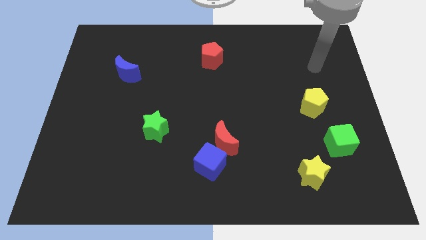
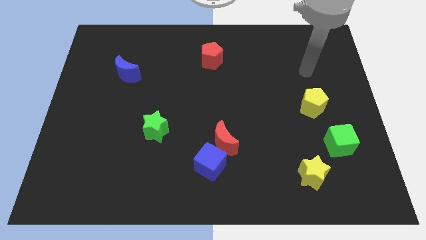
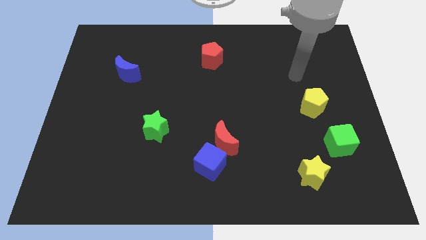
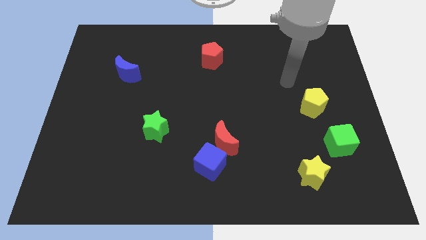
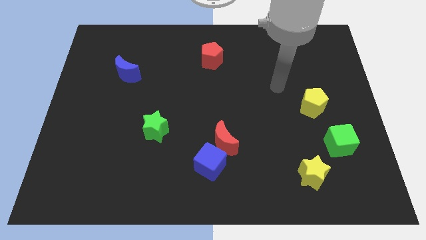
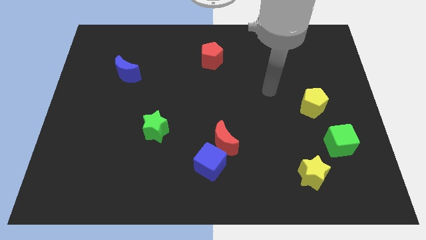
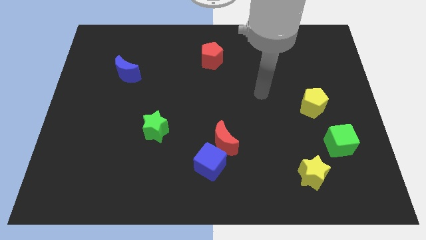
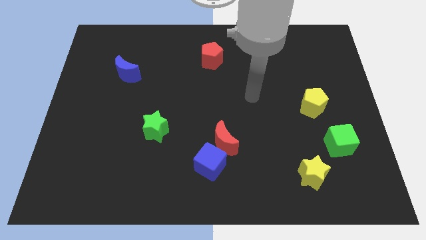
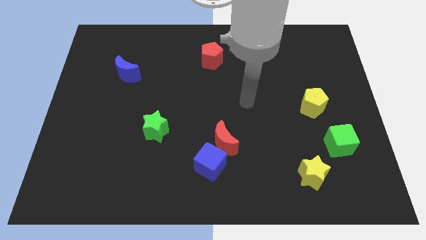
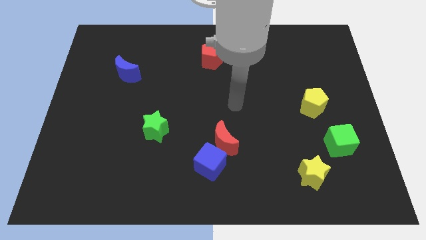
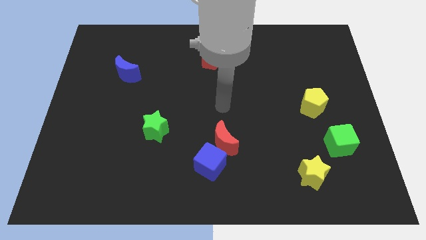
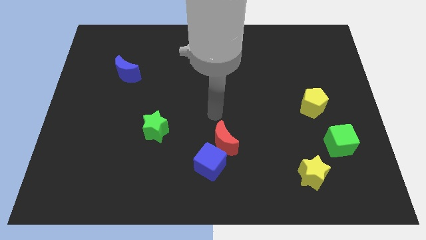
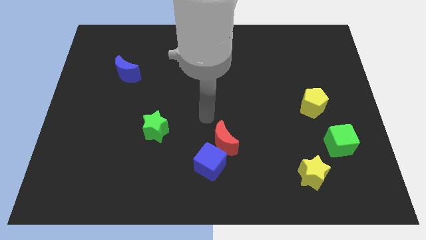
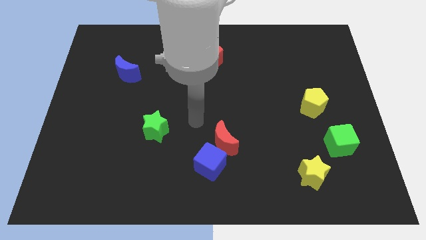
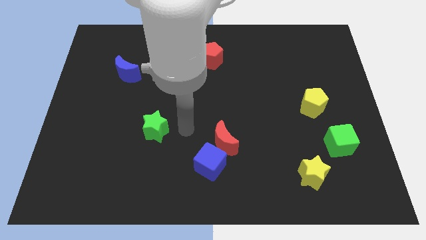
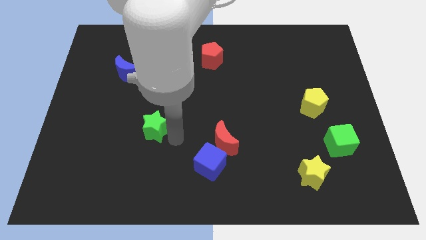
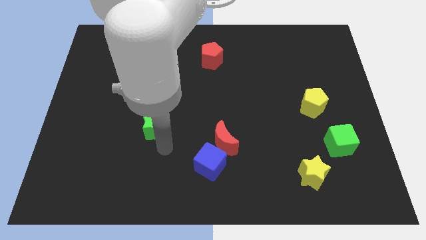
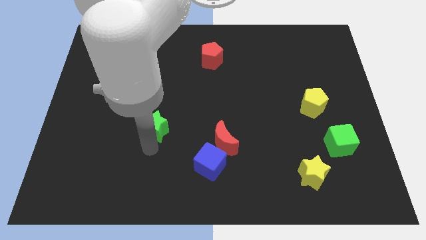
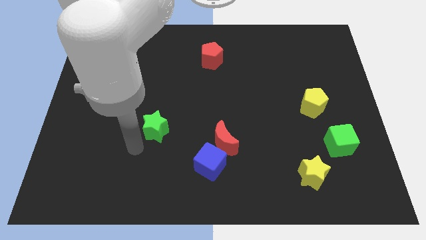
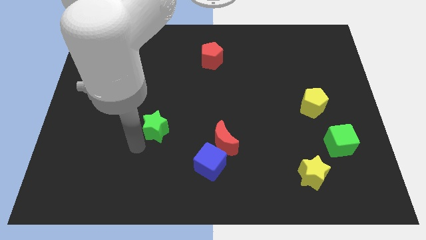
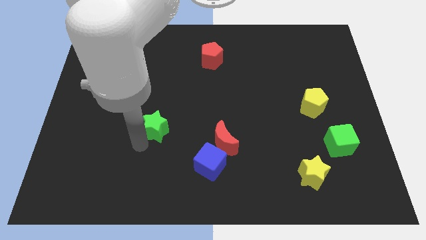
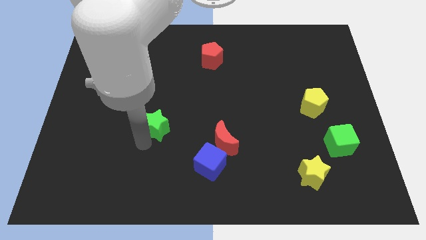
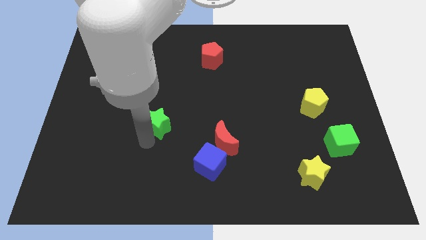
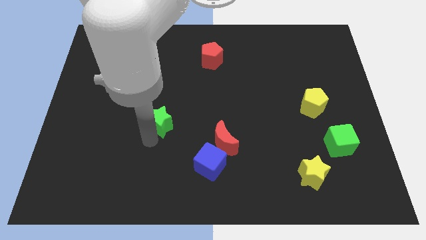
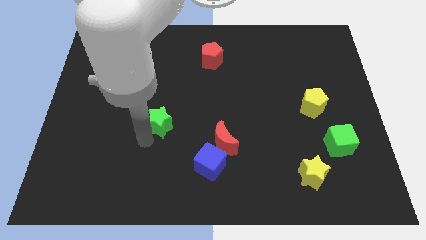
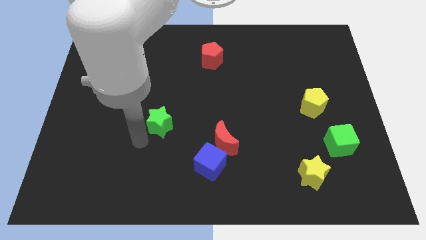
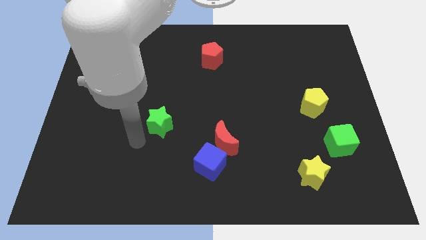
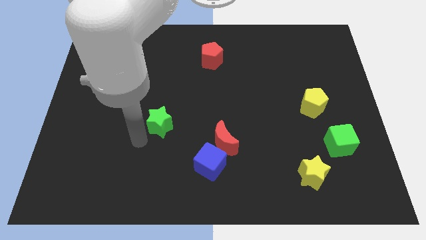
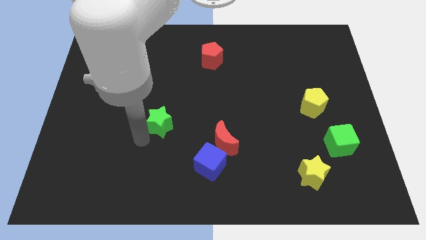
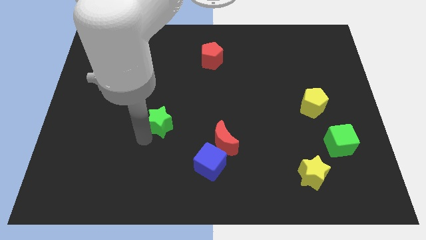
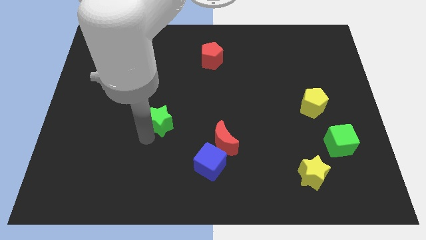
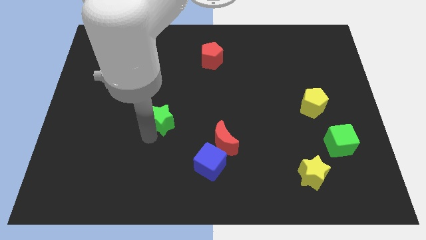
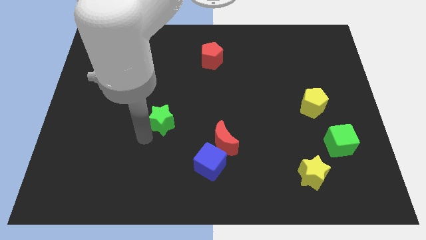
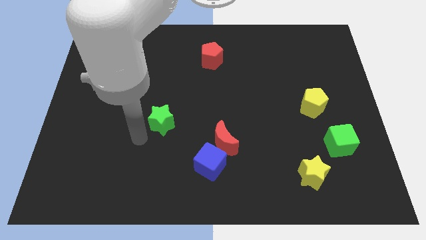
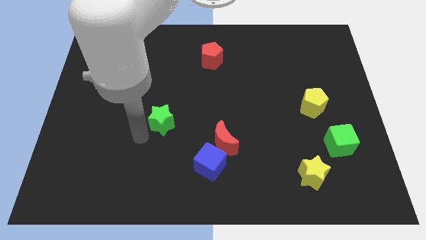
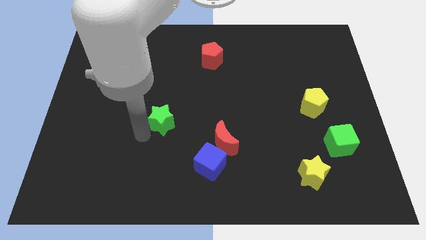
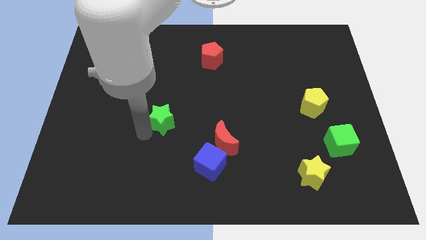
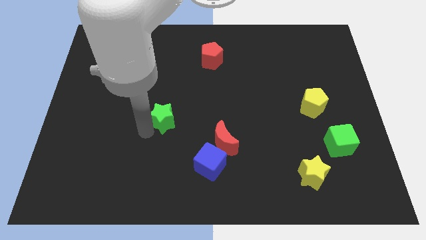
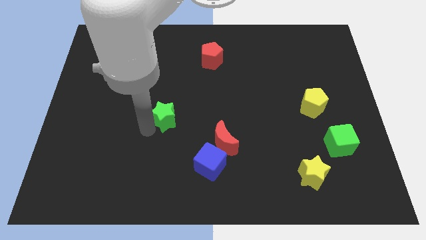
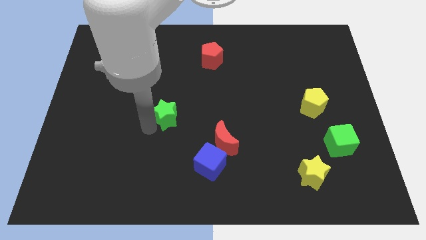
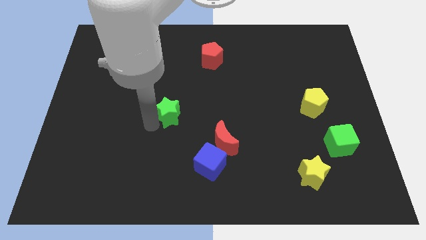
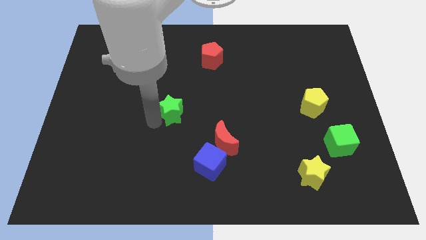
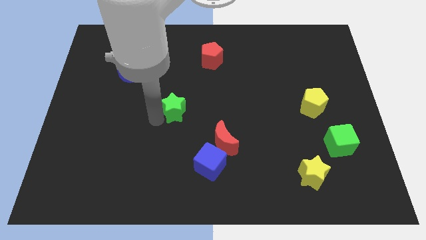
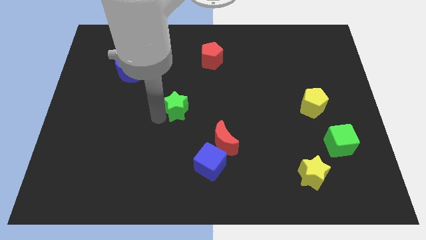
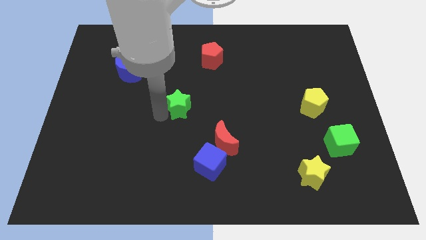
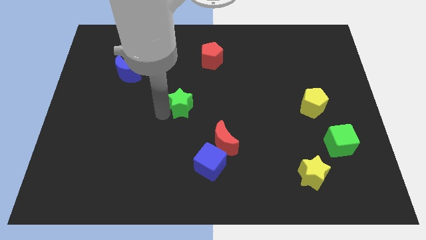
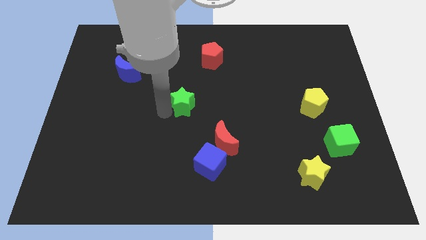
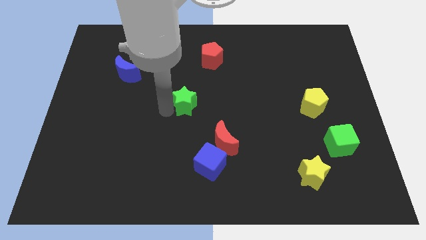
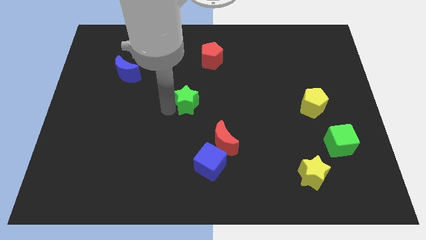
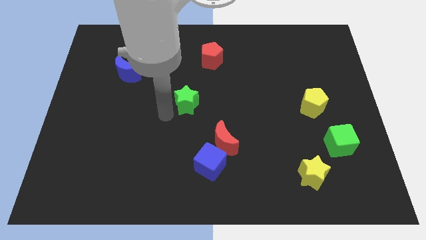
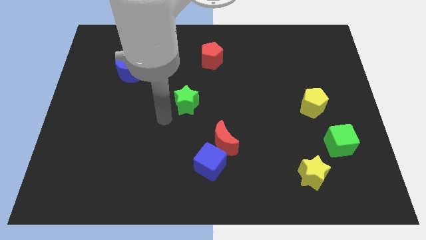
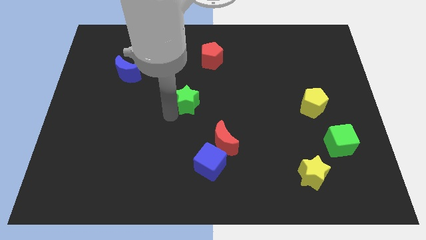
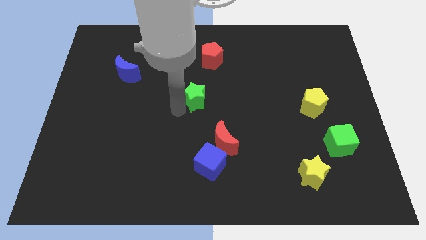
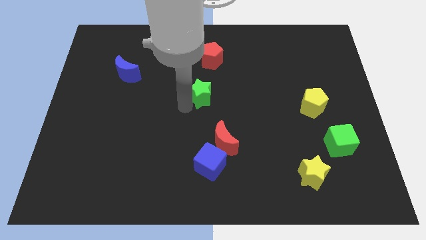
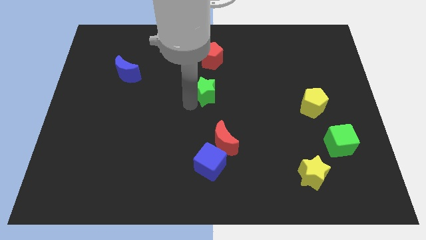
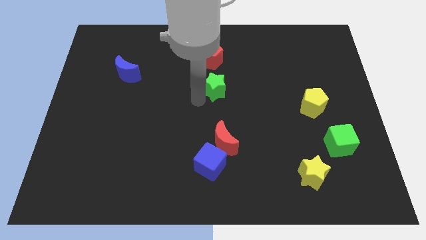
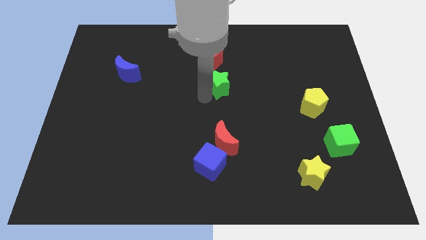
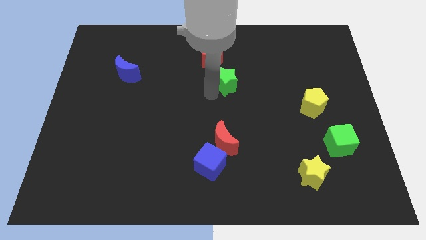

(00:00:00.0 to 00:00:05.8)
move the green star to the bottom right side of the red pentagon

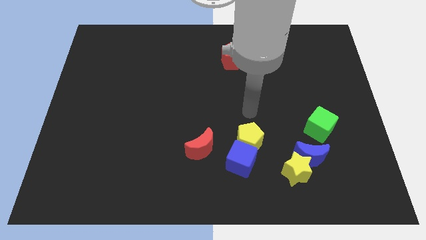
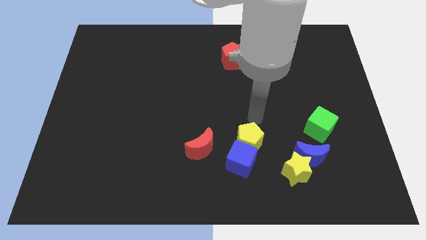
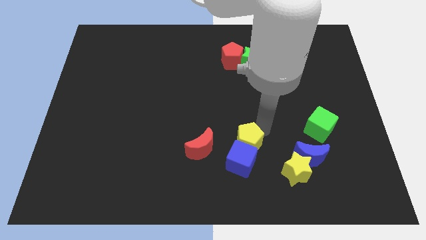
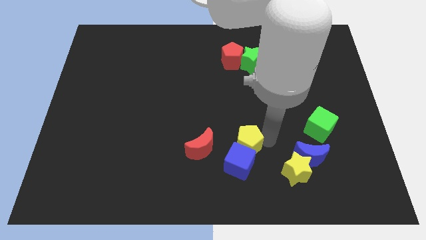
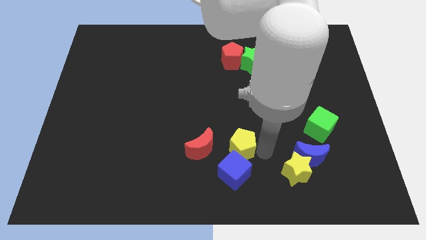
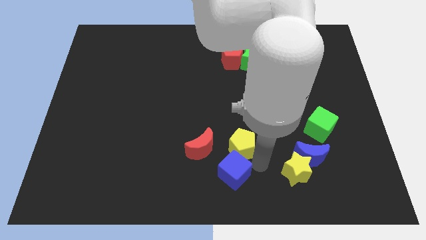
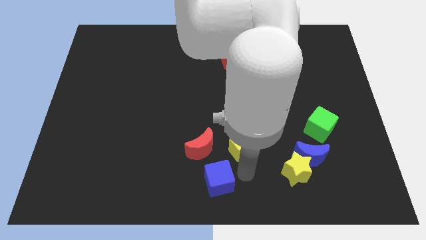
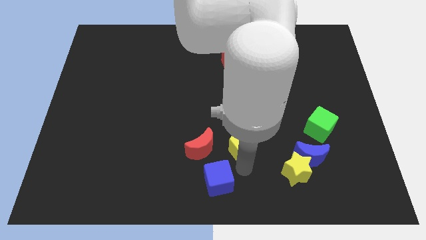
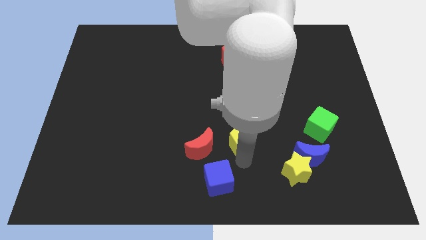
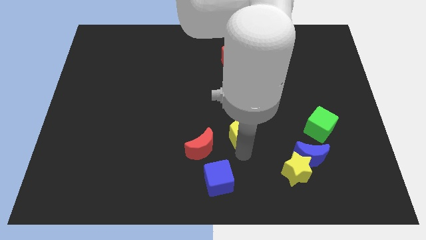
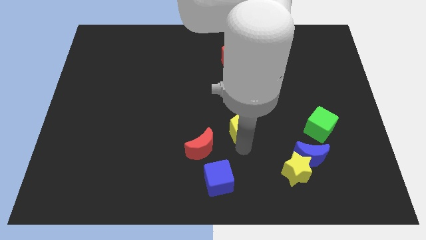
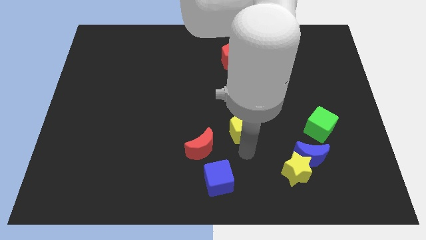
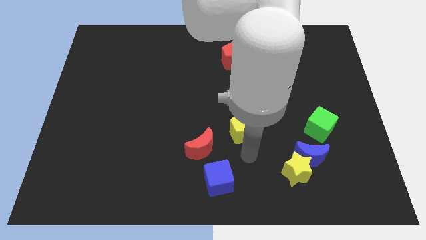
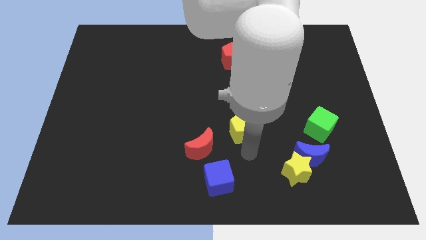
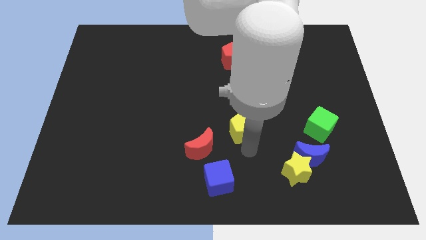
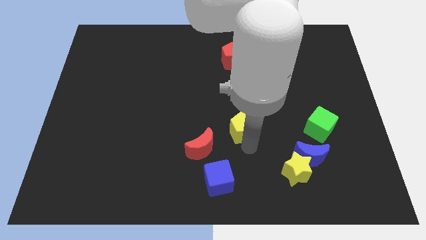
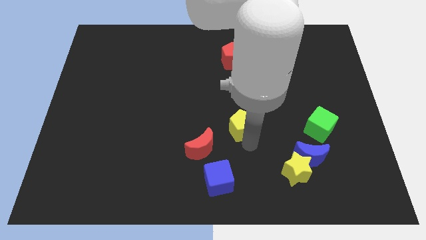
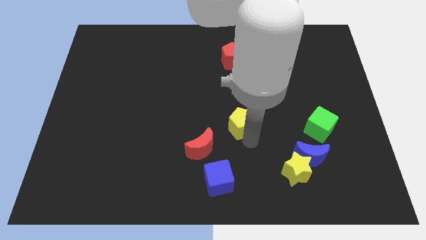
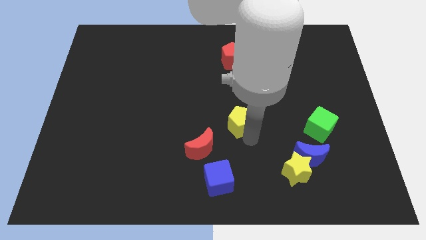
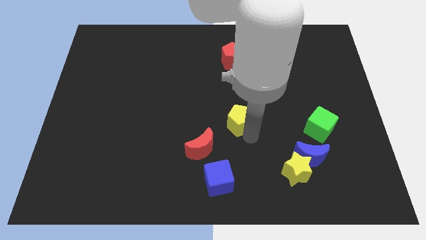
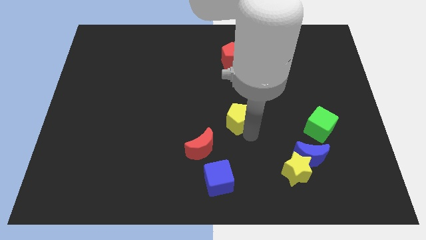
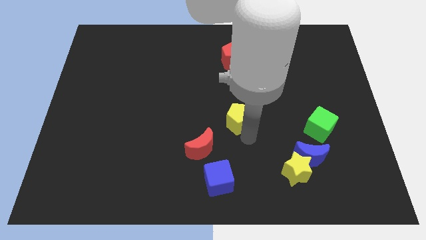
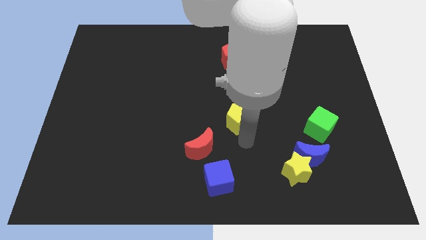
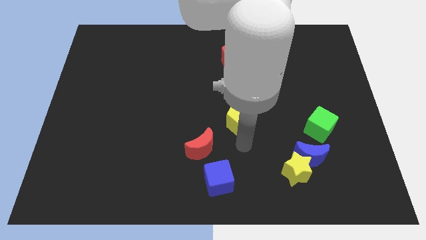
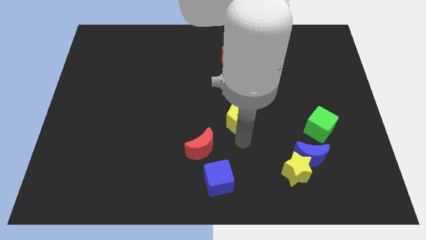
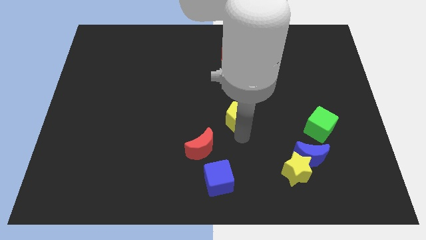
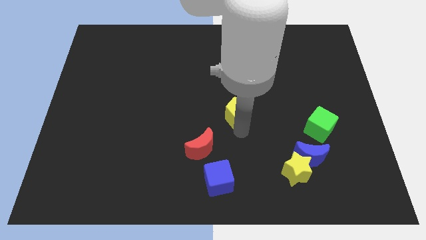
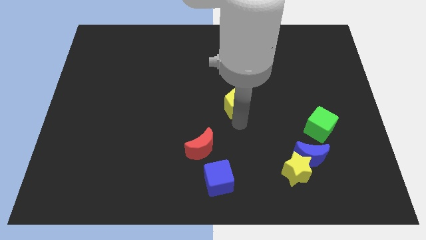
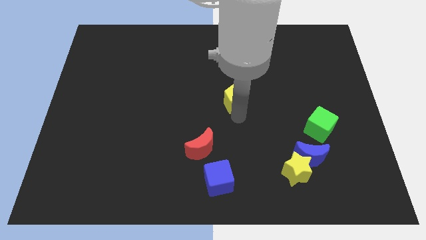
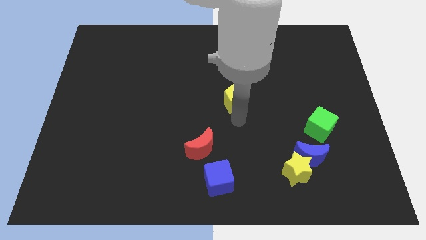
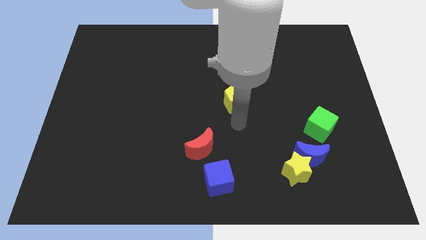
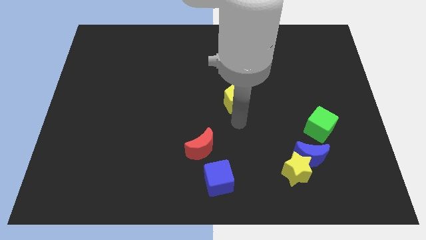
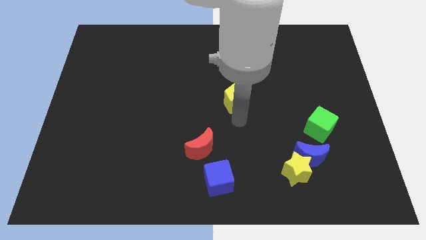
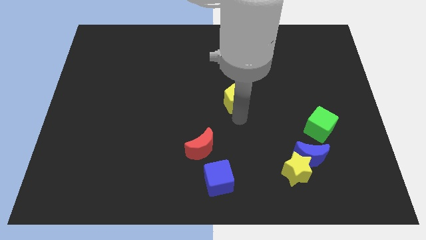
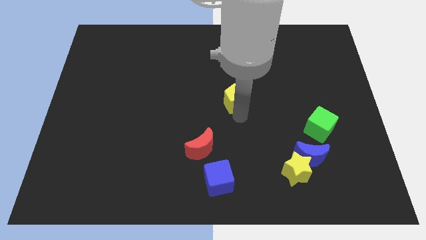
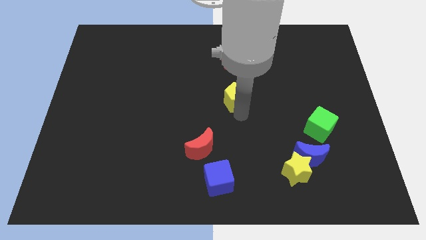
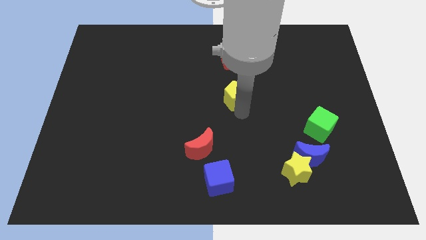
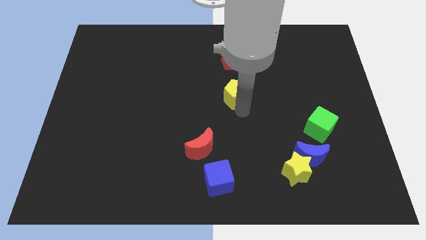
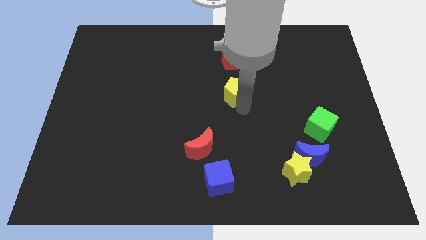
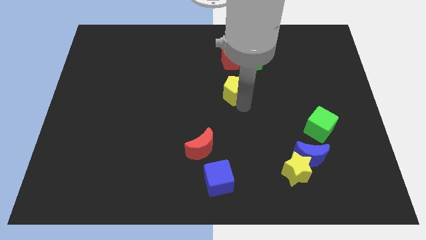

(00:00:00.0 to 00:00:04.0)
slide the yellow pentagon to the bottom left of the green star
